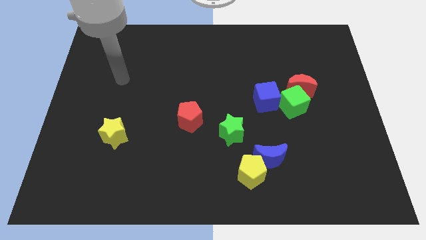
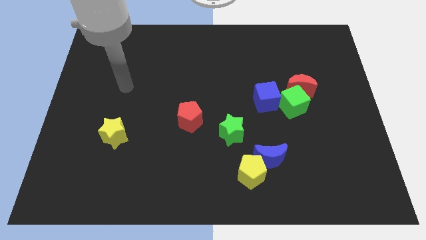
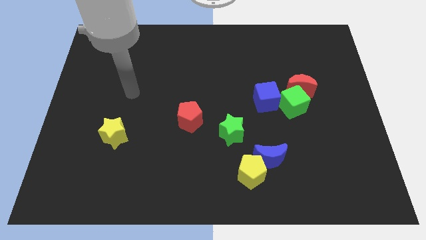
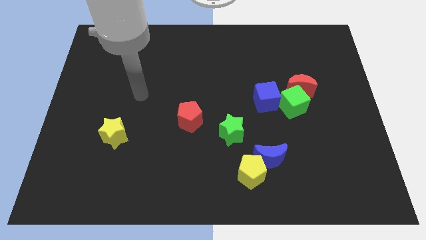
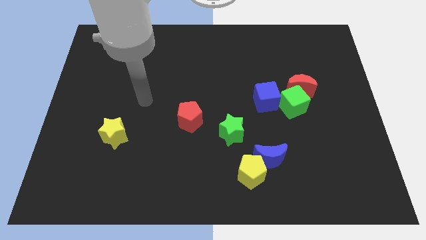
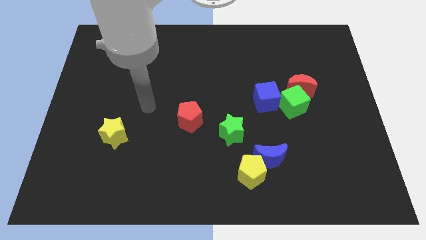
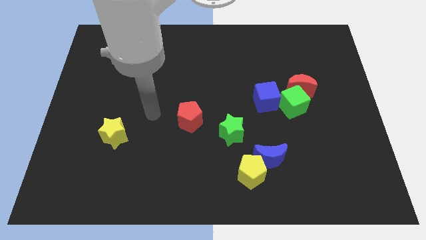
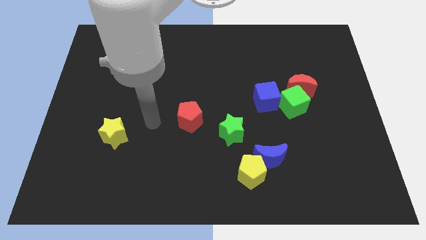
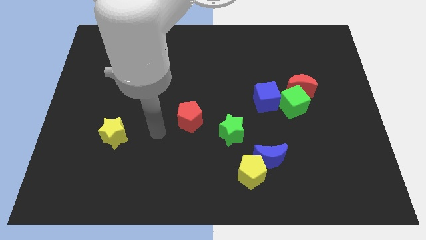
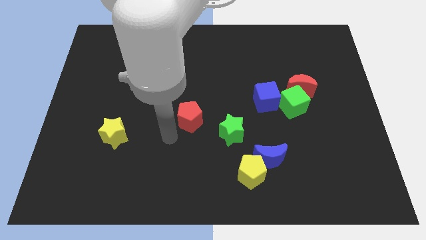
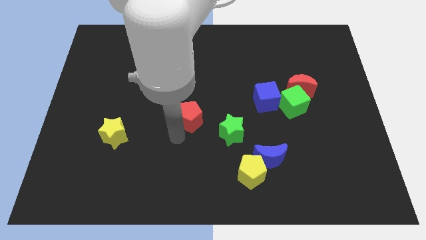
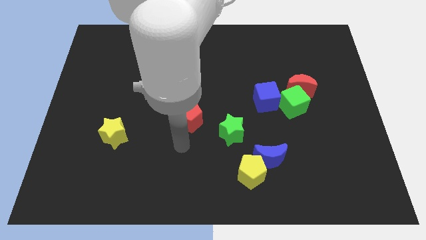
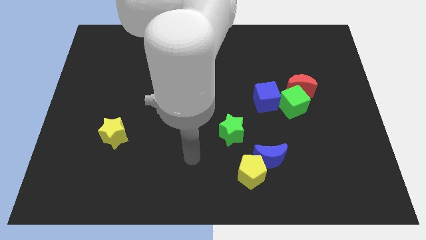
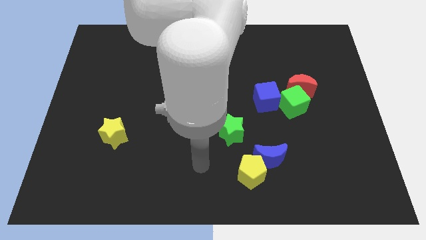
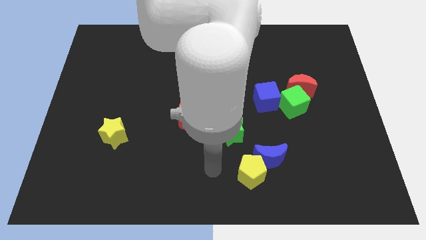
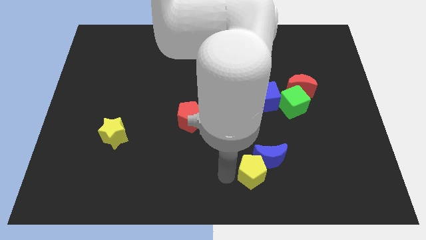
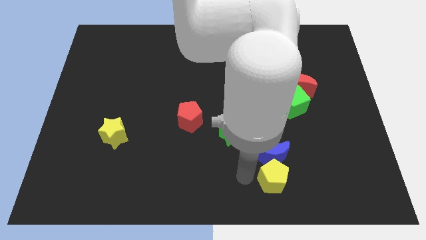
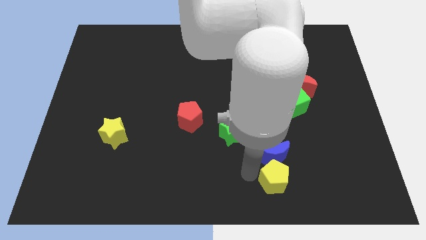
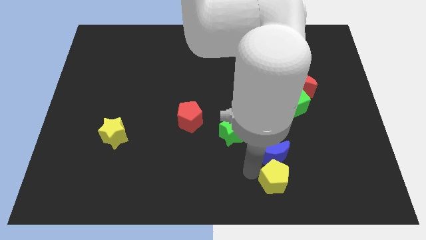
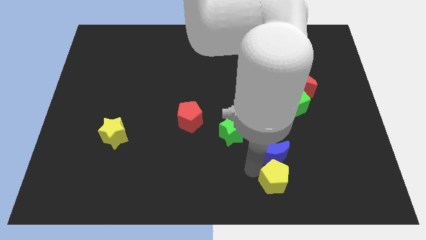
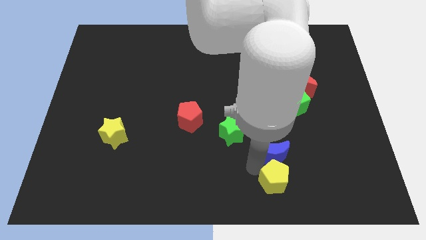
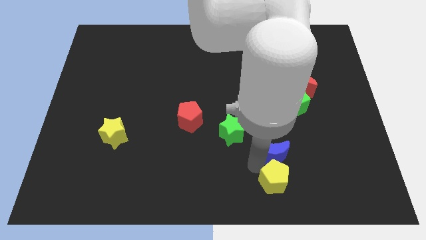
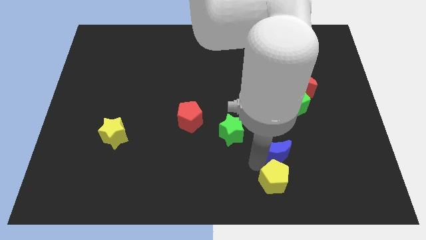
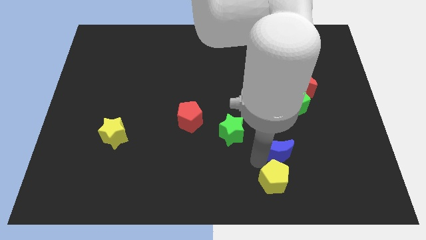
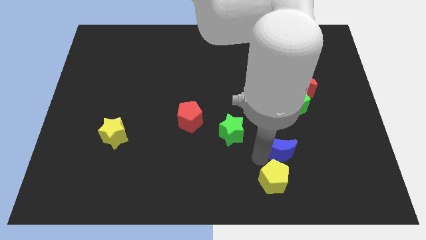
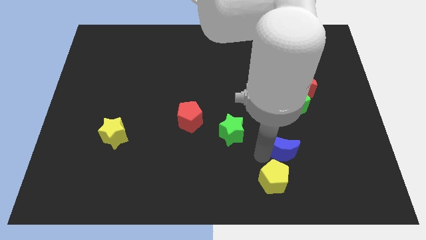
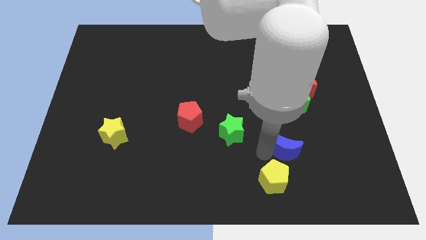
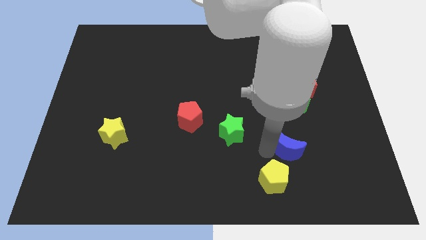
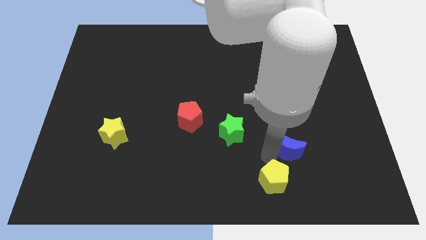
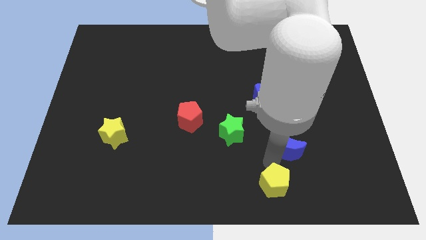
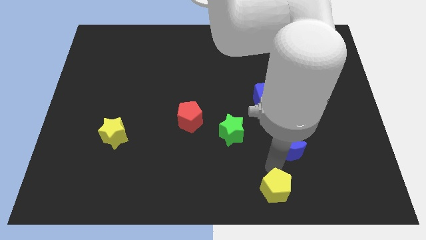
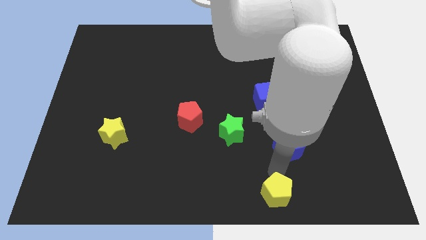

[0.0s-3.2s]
pull the blue moon apart from the yellow pentagon

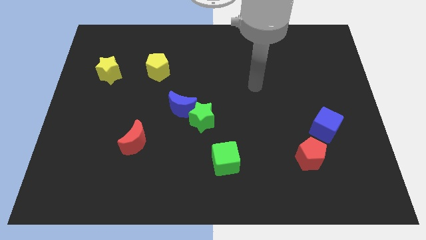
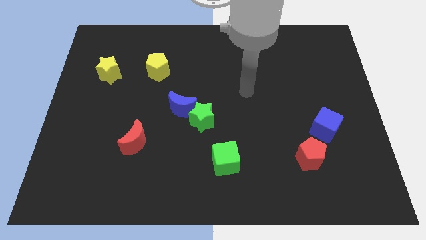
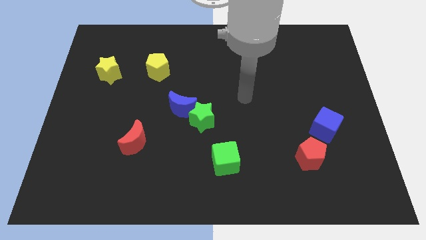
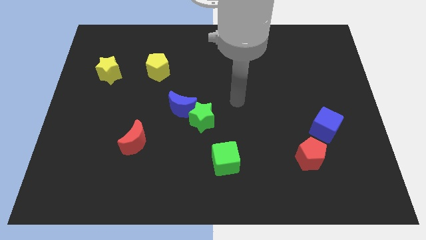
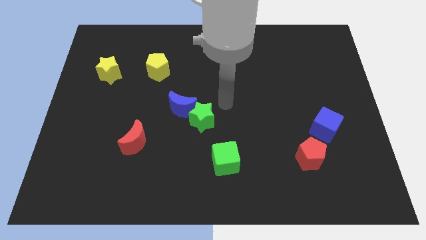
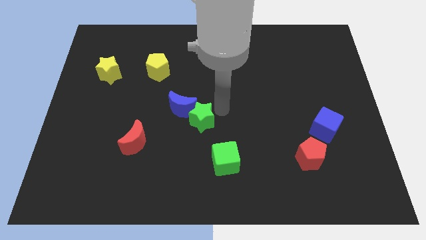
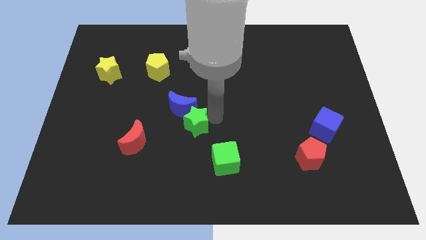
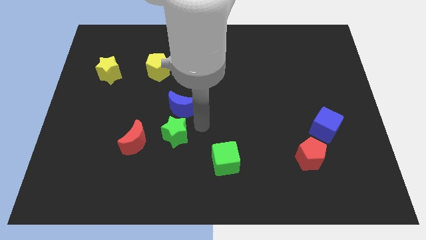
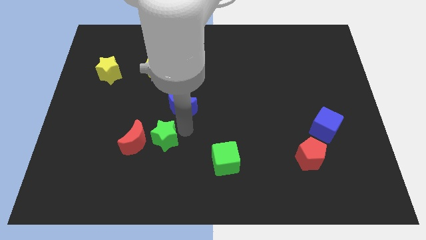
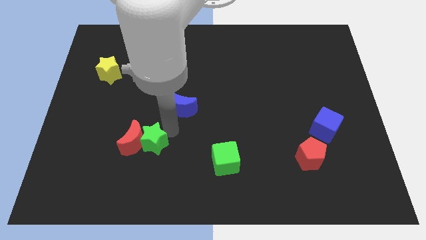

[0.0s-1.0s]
separate the blue moon from the green star

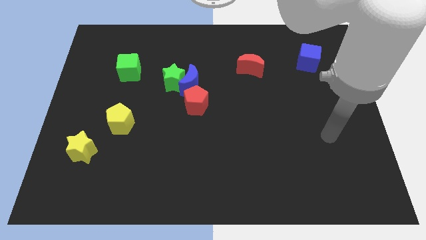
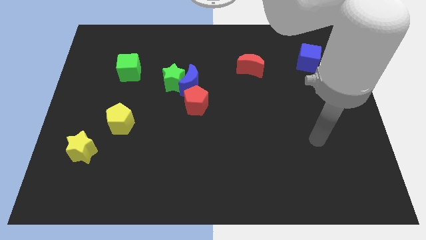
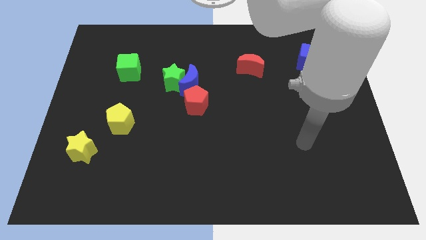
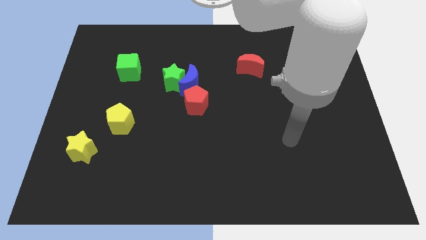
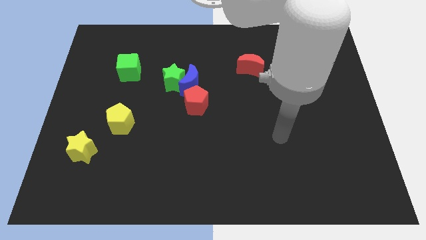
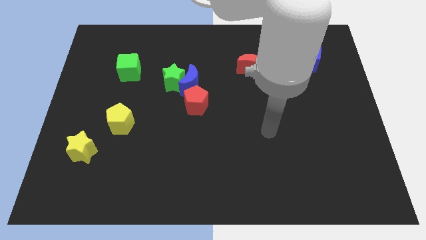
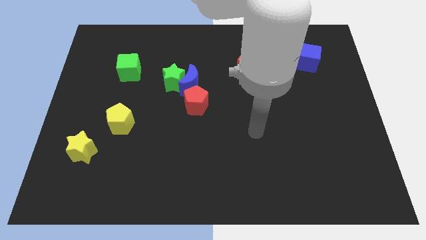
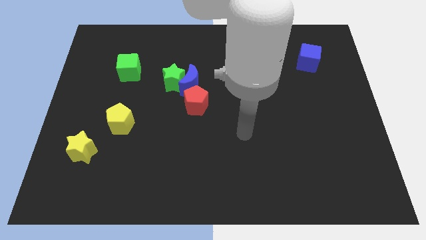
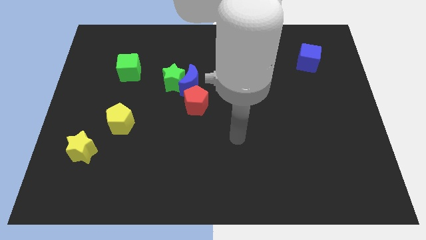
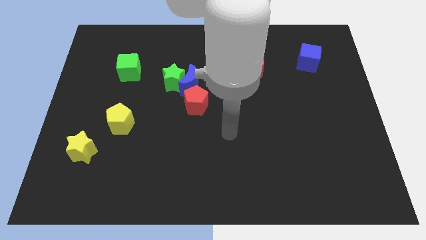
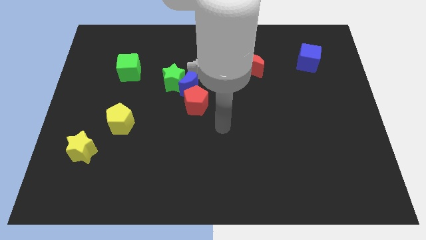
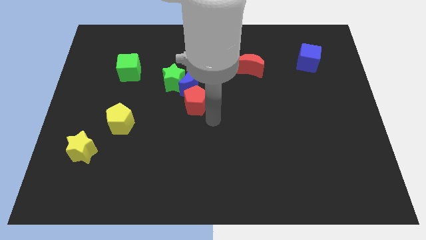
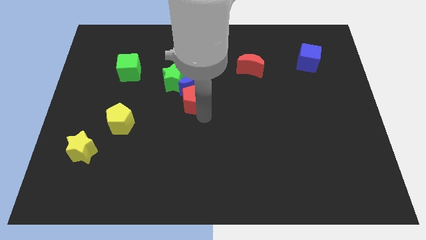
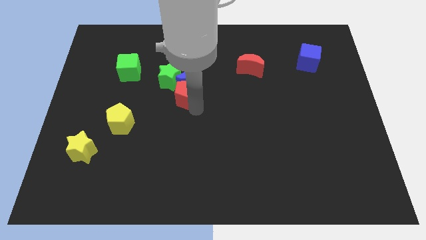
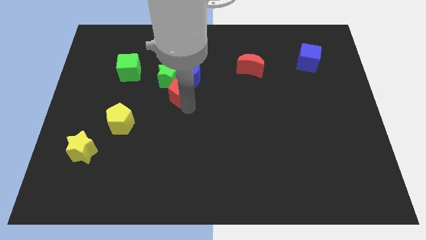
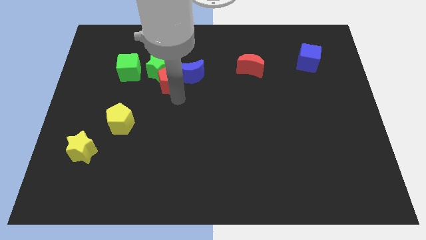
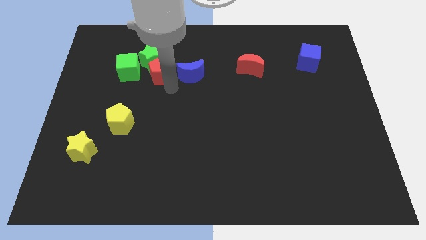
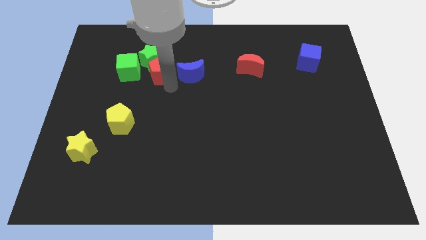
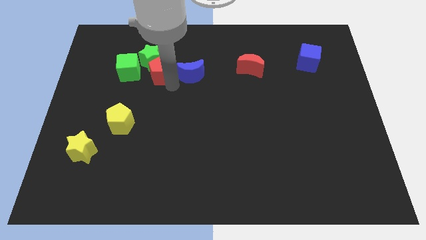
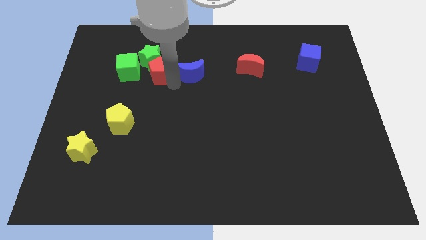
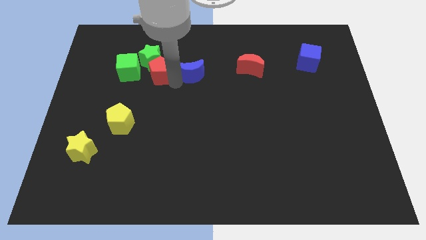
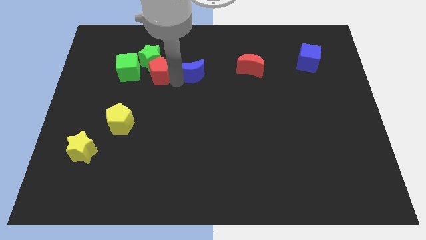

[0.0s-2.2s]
separate the blue moon from the green star and red pentagon

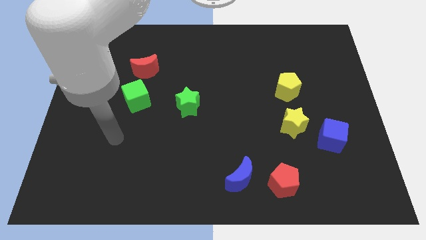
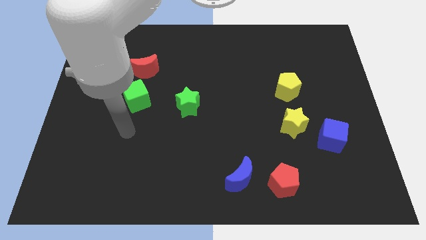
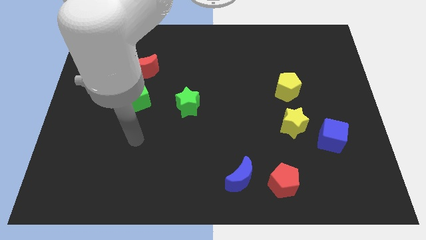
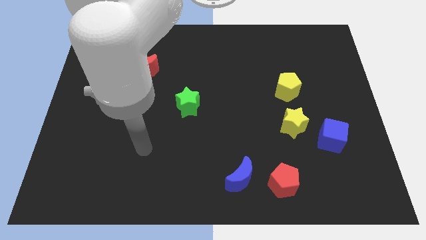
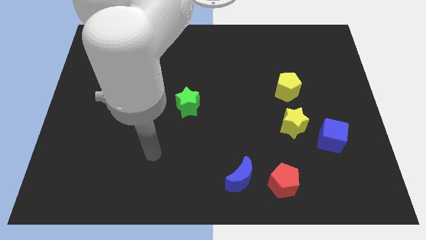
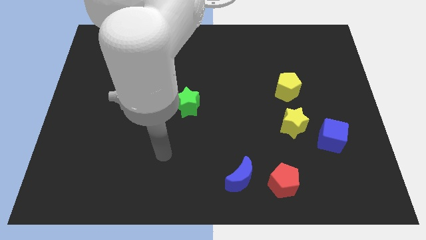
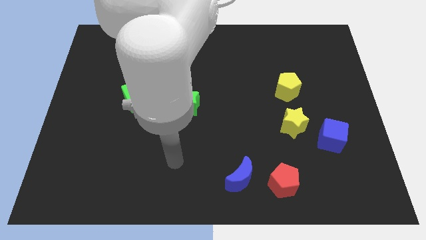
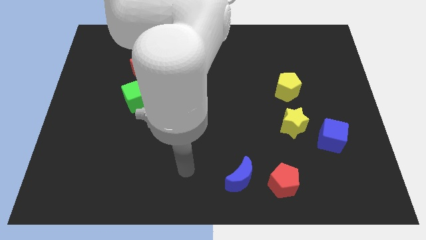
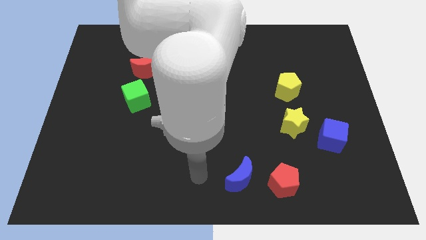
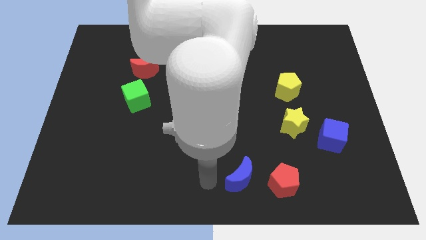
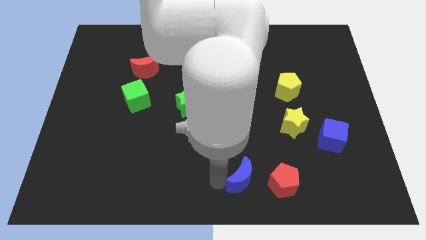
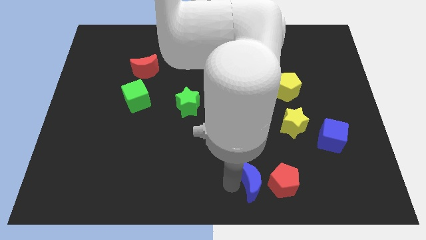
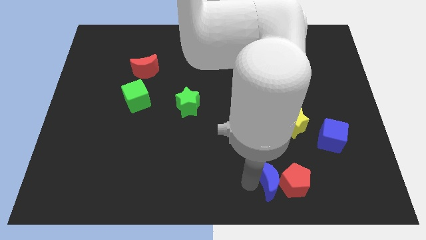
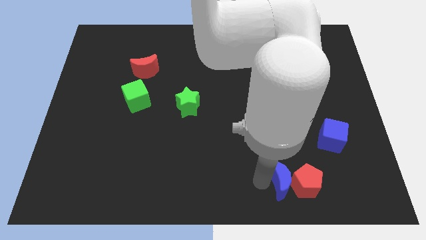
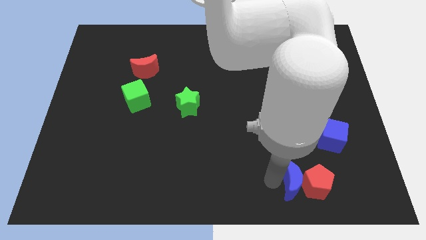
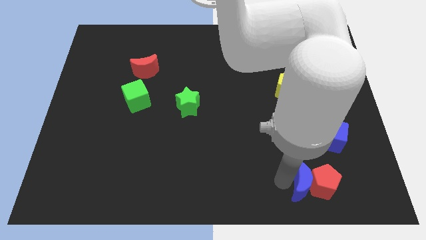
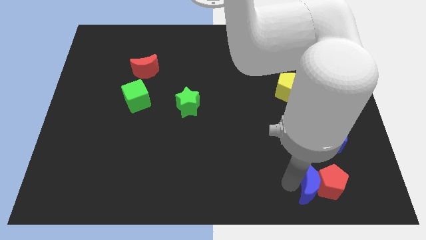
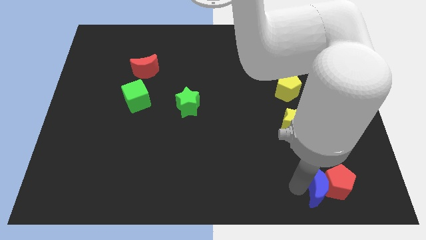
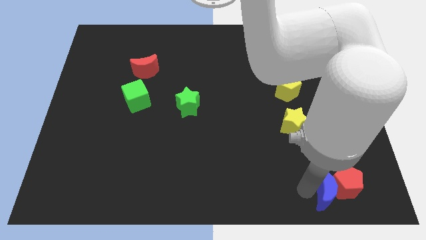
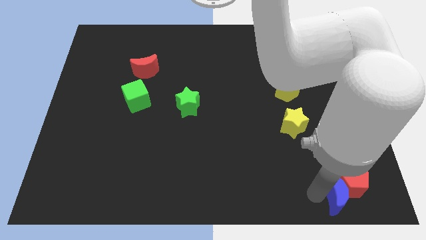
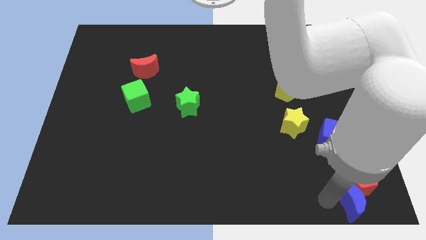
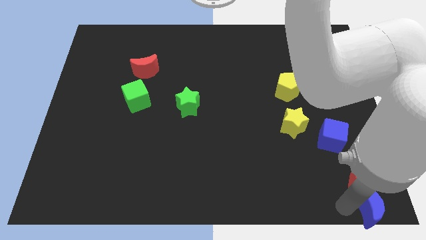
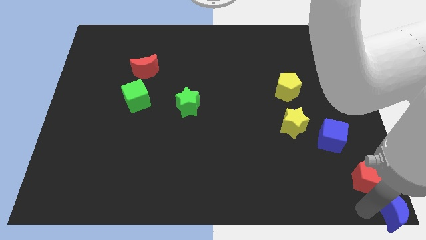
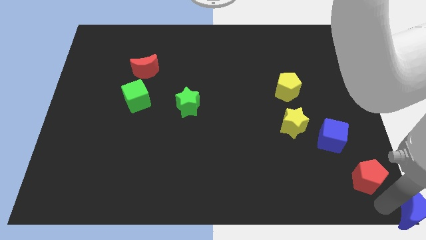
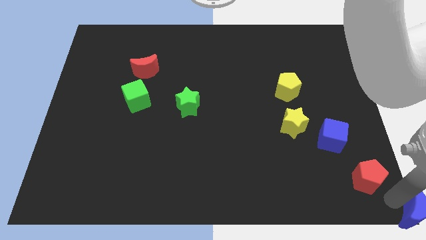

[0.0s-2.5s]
separate the red pentagon from the blue moon

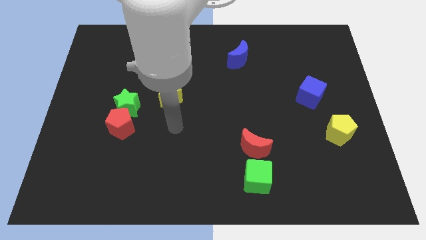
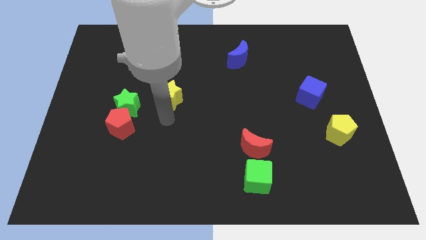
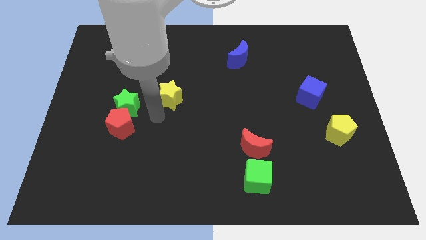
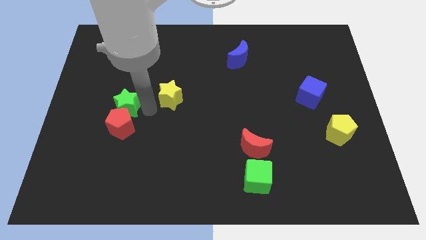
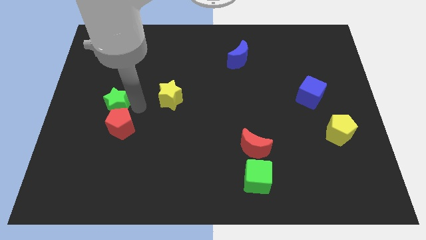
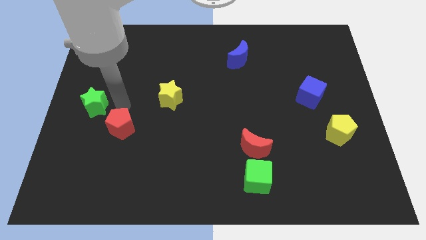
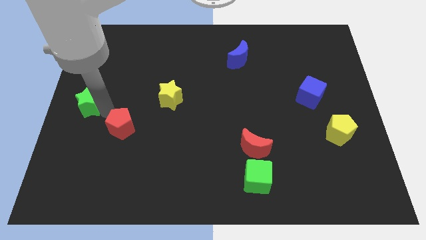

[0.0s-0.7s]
separate the red pentagon from the green star
